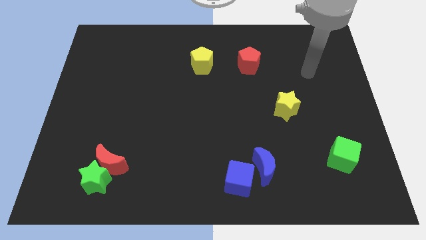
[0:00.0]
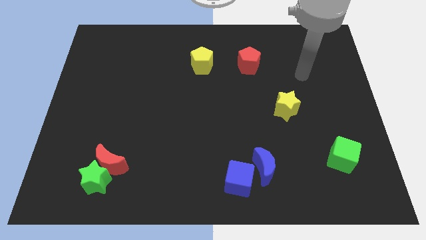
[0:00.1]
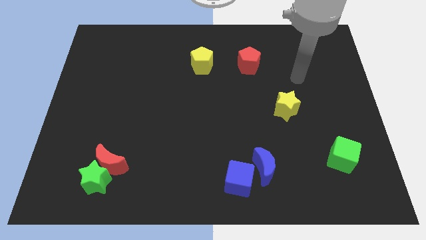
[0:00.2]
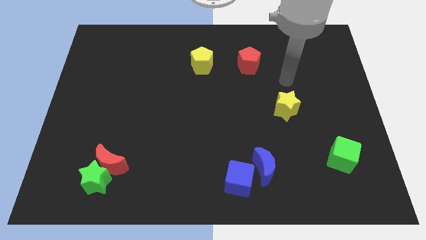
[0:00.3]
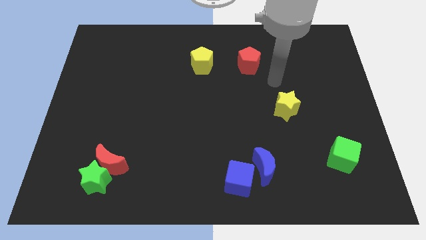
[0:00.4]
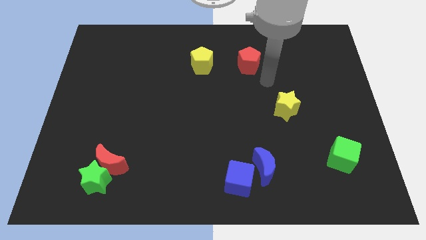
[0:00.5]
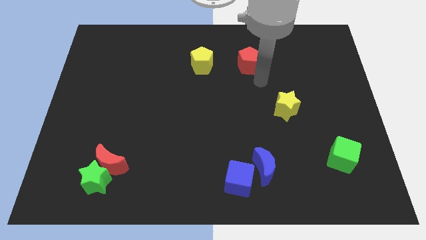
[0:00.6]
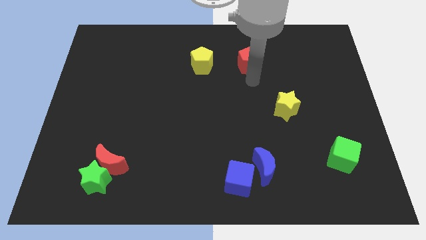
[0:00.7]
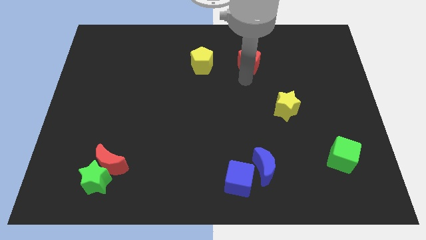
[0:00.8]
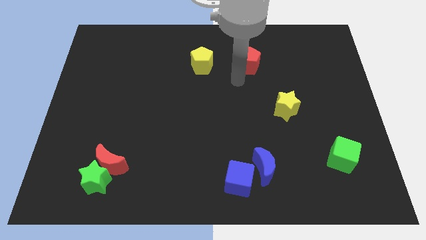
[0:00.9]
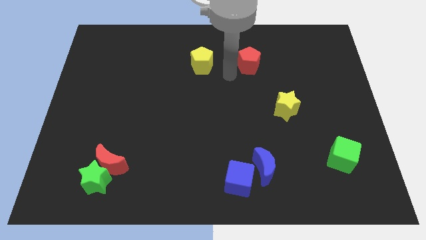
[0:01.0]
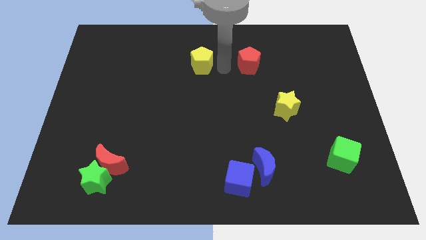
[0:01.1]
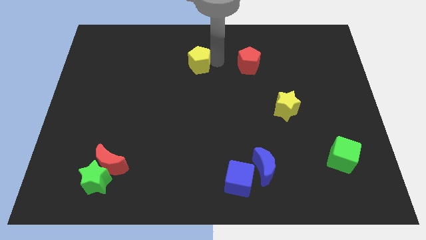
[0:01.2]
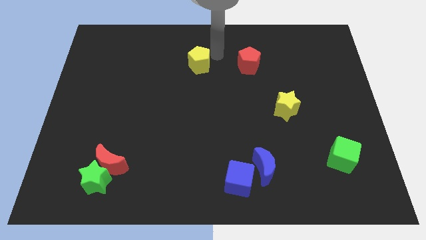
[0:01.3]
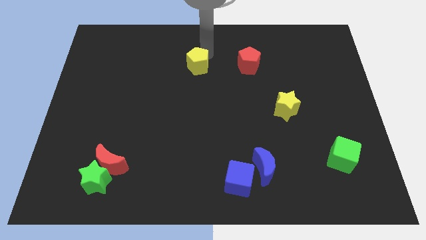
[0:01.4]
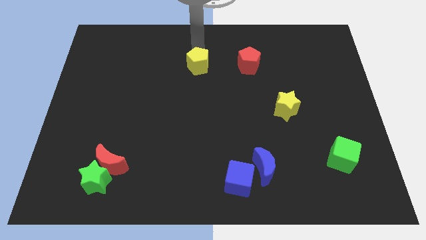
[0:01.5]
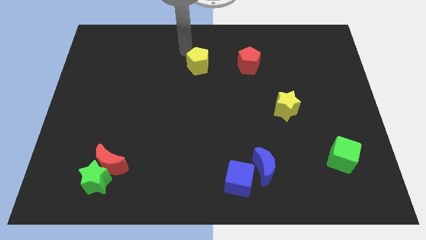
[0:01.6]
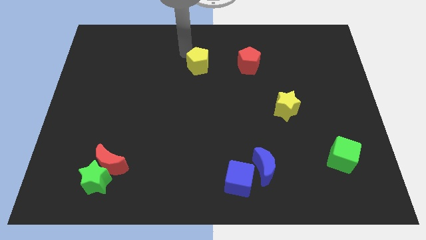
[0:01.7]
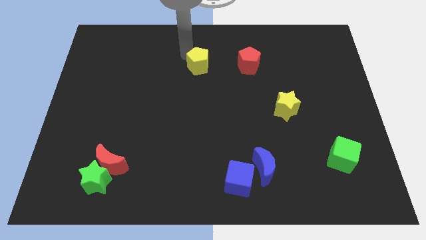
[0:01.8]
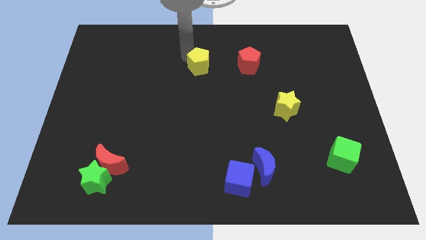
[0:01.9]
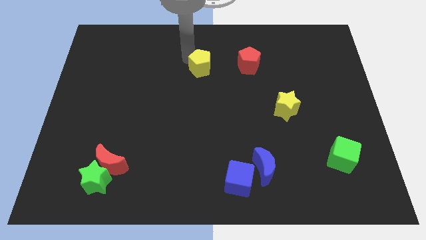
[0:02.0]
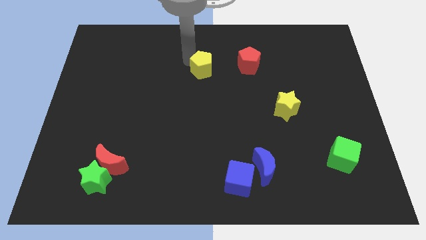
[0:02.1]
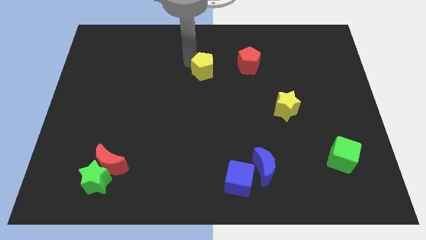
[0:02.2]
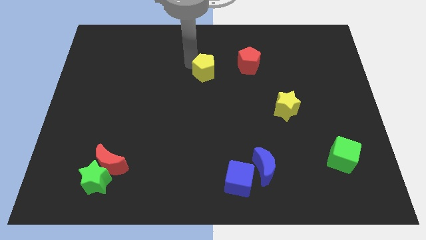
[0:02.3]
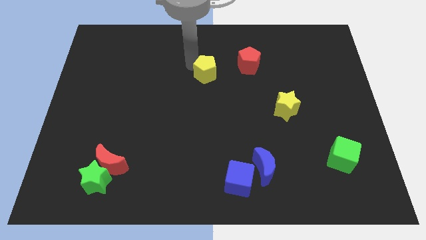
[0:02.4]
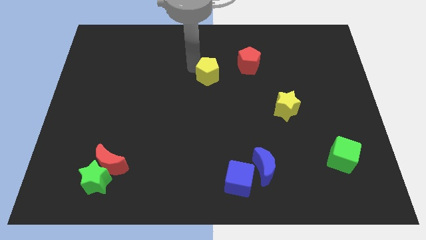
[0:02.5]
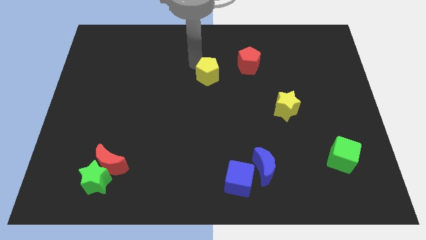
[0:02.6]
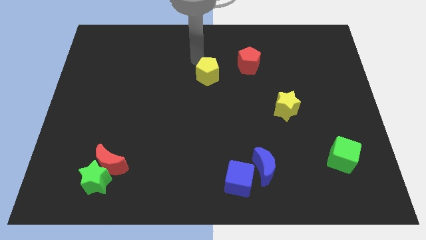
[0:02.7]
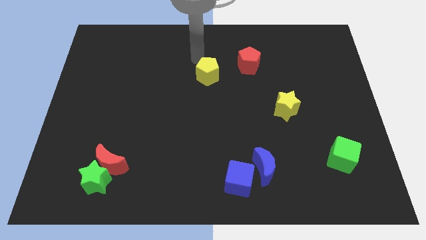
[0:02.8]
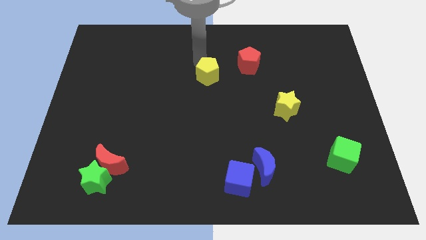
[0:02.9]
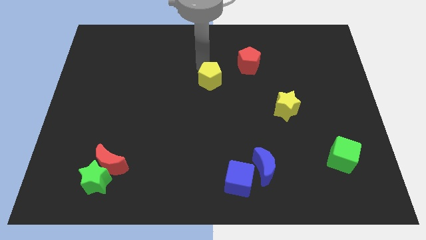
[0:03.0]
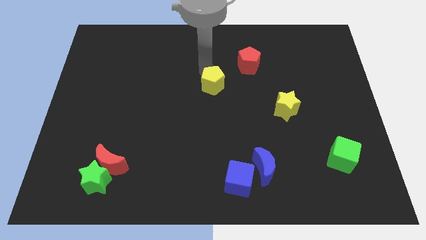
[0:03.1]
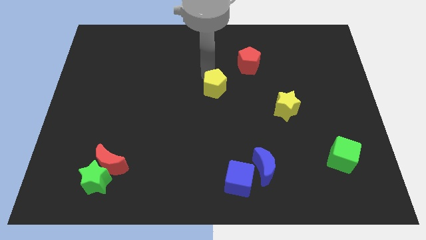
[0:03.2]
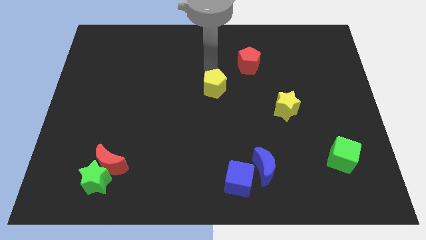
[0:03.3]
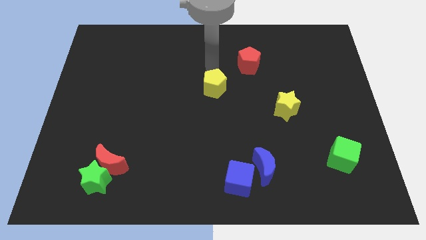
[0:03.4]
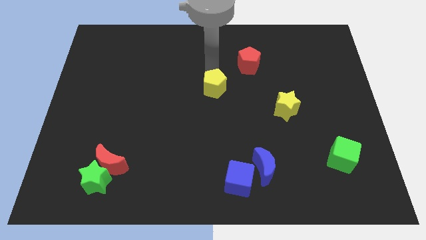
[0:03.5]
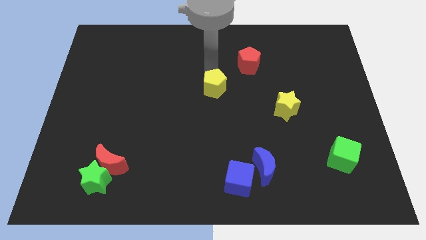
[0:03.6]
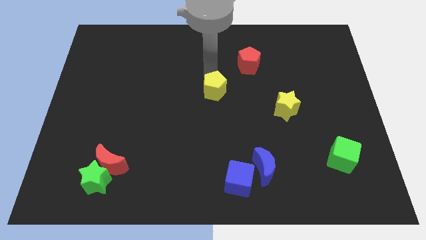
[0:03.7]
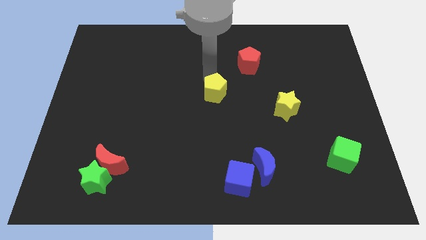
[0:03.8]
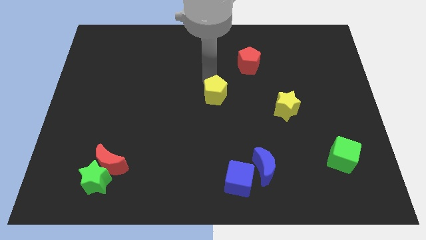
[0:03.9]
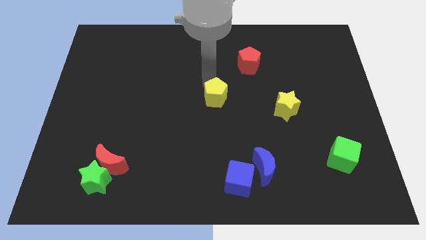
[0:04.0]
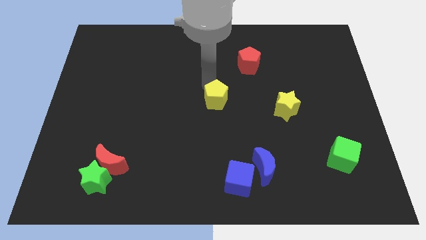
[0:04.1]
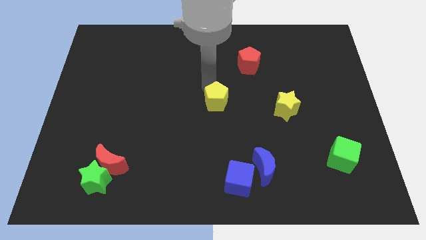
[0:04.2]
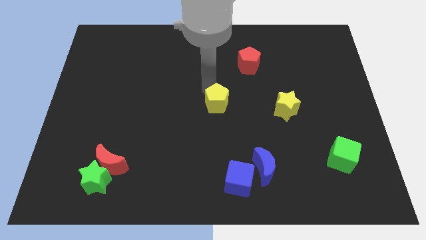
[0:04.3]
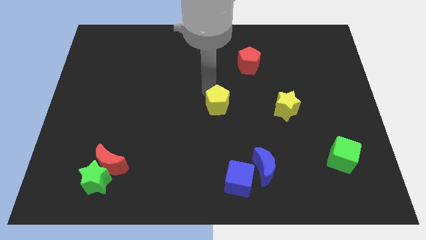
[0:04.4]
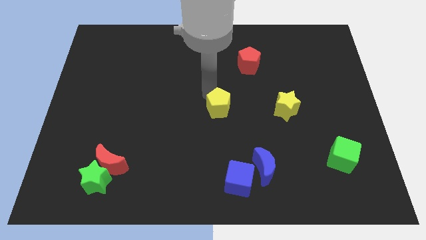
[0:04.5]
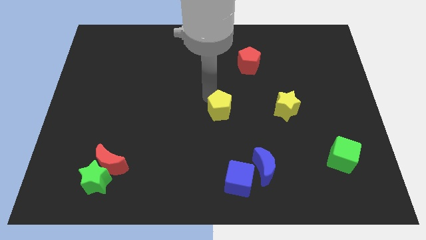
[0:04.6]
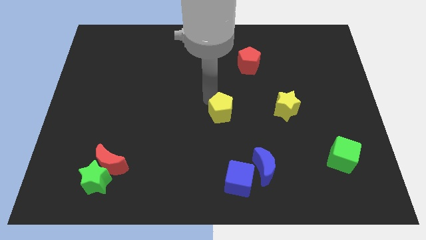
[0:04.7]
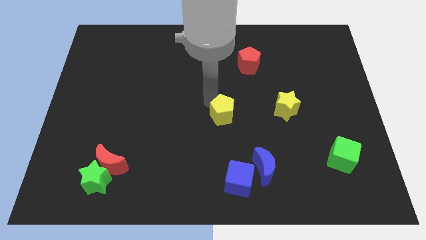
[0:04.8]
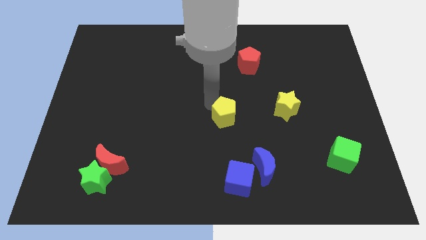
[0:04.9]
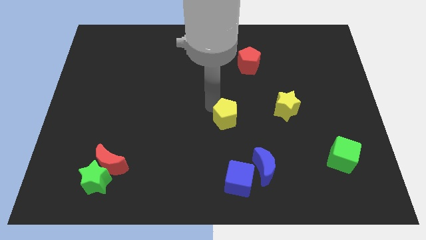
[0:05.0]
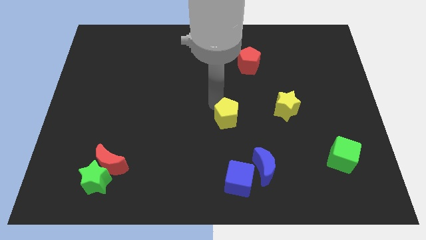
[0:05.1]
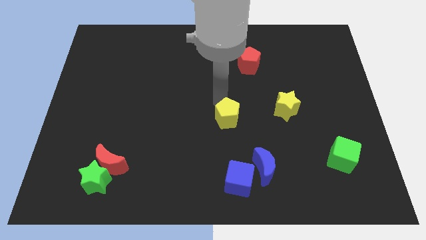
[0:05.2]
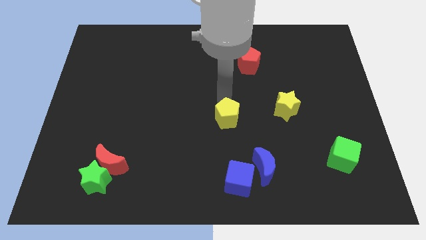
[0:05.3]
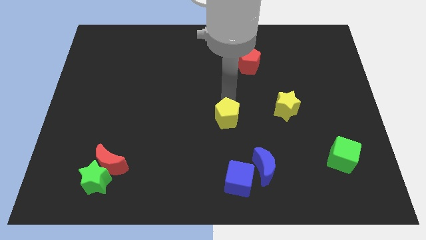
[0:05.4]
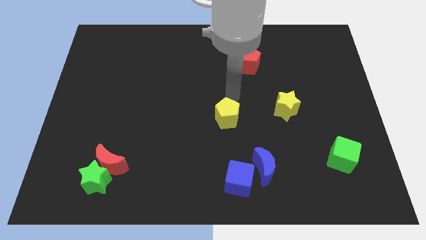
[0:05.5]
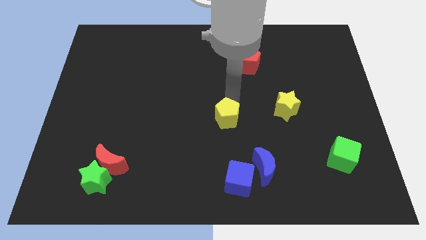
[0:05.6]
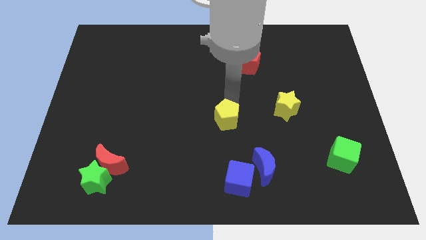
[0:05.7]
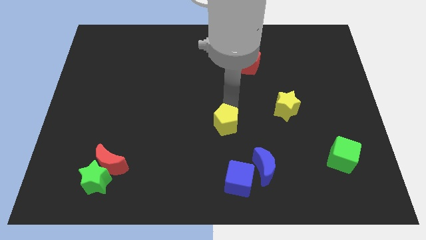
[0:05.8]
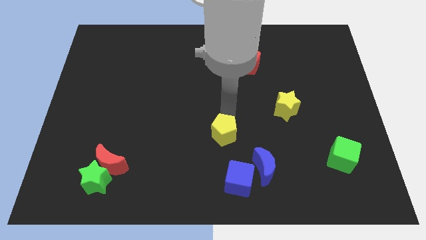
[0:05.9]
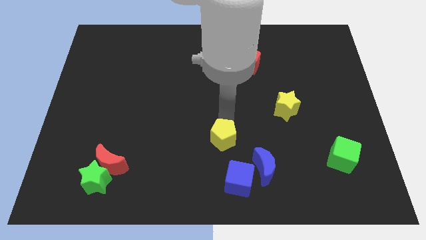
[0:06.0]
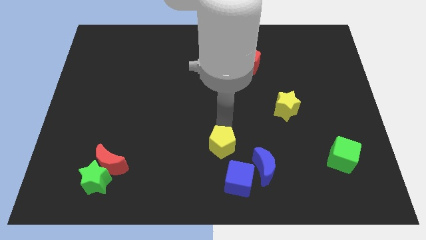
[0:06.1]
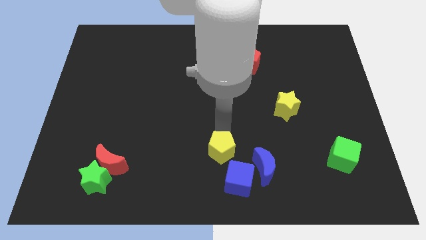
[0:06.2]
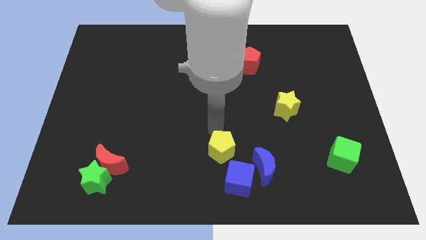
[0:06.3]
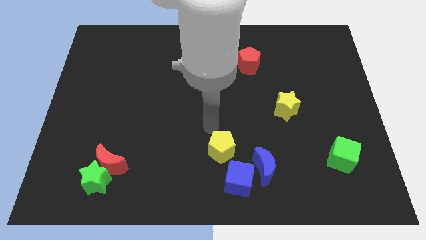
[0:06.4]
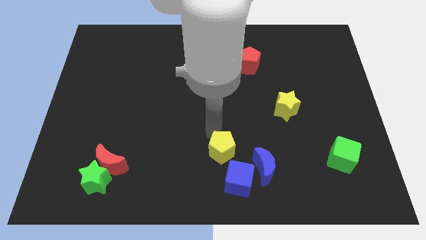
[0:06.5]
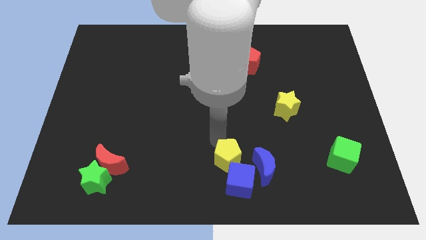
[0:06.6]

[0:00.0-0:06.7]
slide the yellow pentagon next to the blue cube

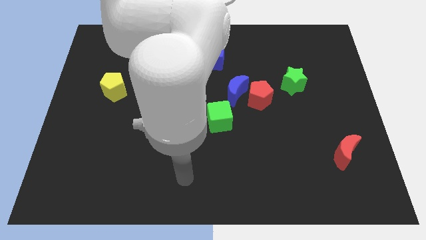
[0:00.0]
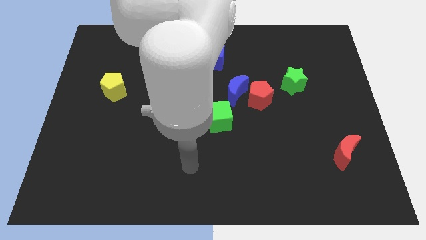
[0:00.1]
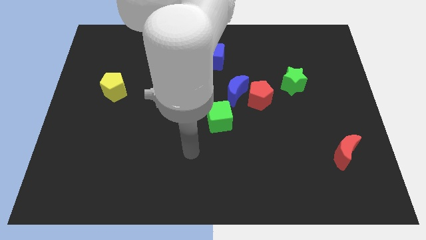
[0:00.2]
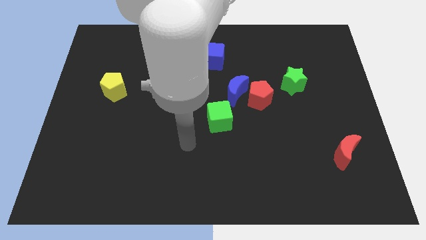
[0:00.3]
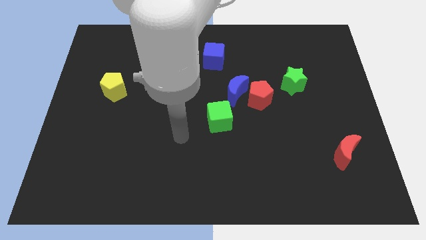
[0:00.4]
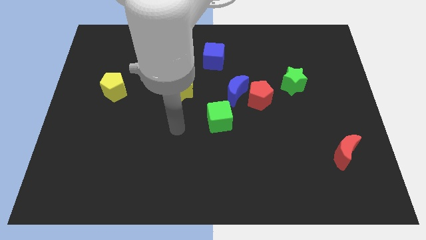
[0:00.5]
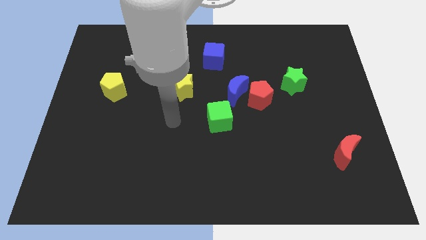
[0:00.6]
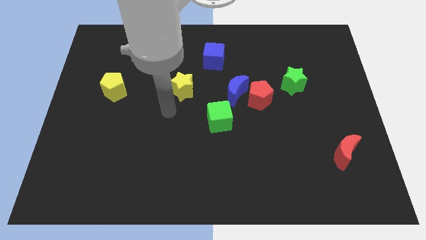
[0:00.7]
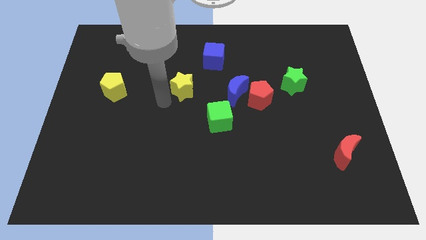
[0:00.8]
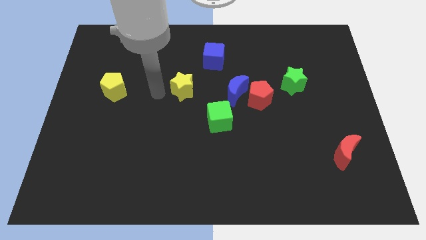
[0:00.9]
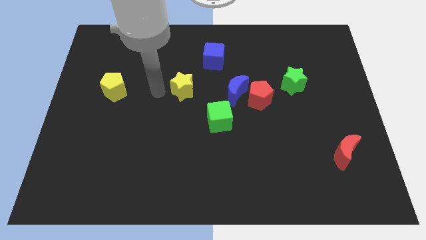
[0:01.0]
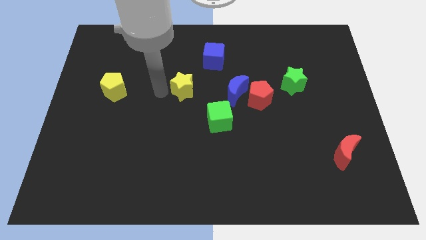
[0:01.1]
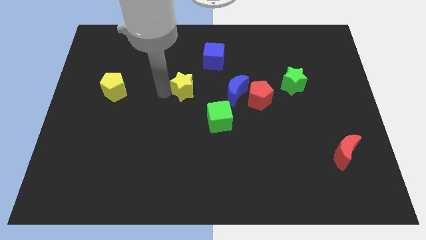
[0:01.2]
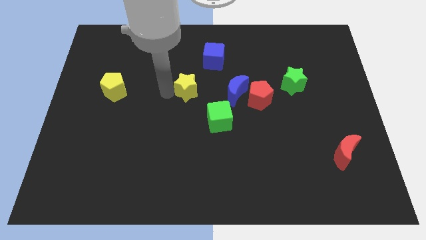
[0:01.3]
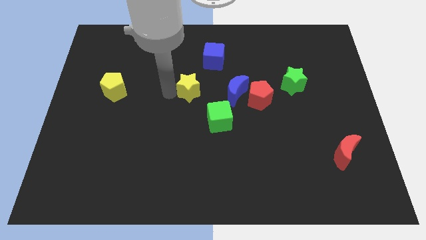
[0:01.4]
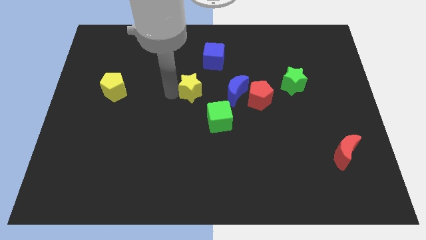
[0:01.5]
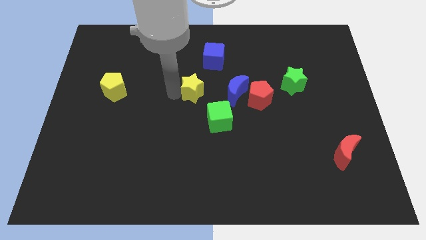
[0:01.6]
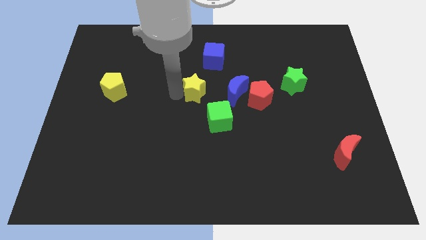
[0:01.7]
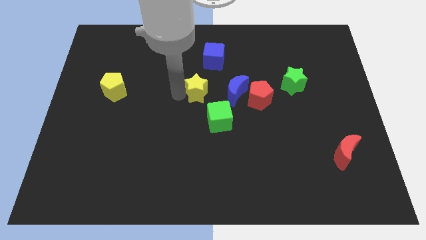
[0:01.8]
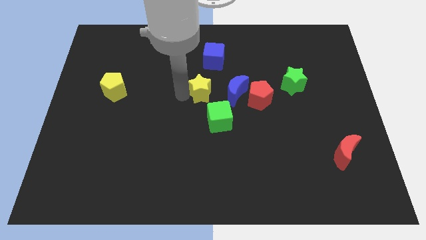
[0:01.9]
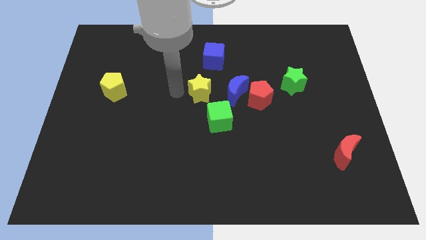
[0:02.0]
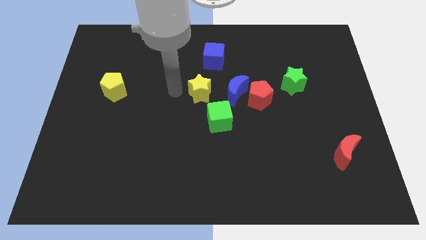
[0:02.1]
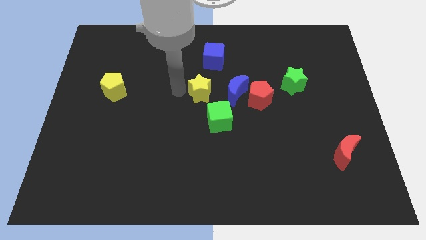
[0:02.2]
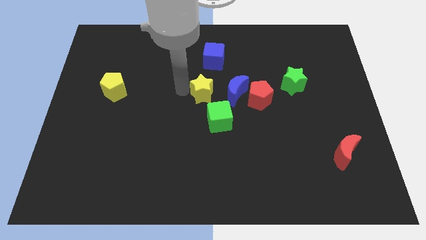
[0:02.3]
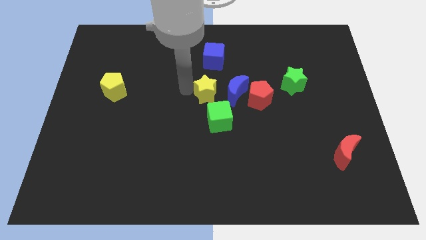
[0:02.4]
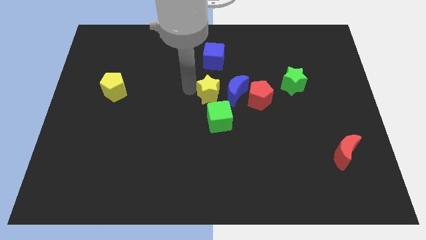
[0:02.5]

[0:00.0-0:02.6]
slide the yellow star close to the blue moon
